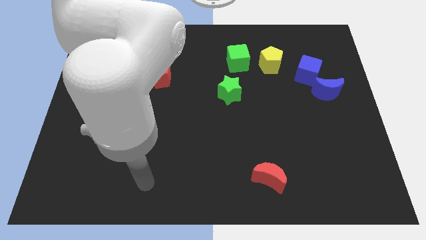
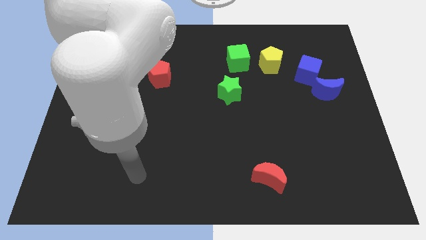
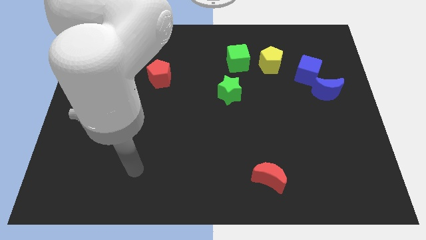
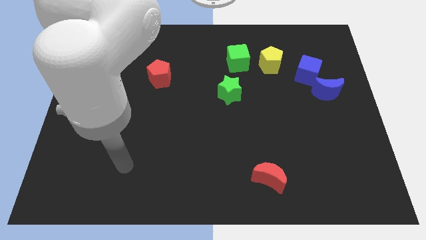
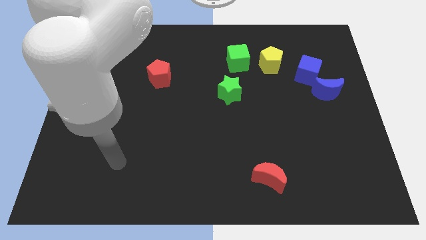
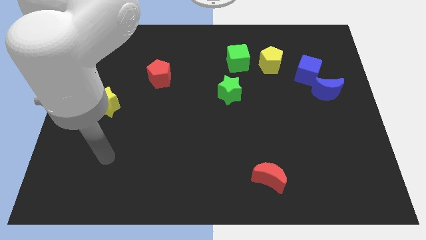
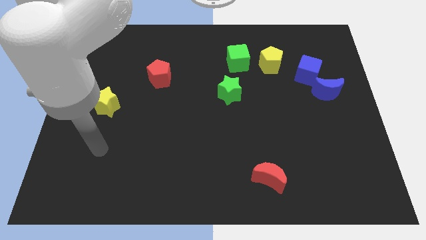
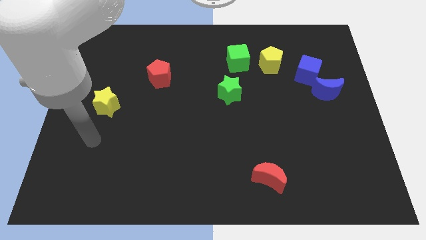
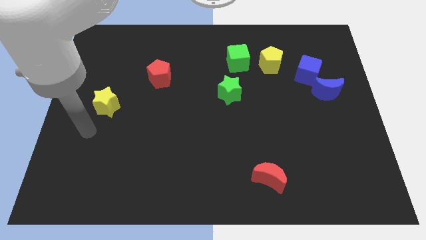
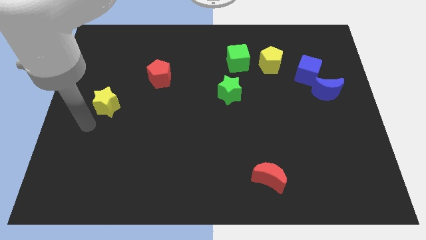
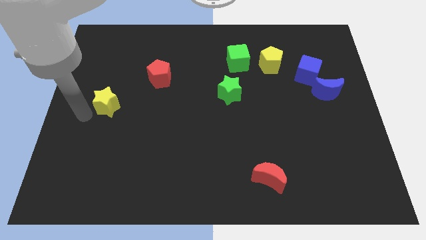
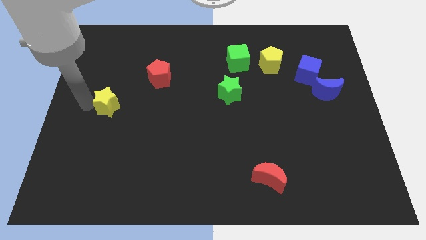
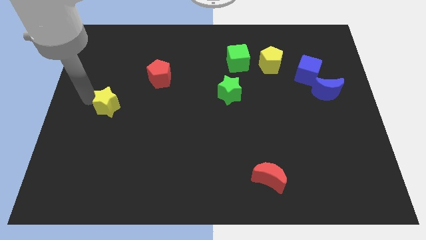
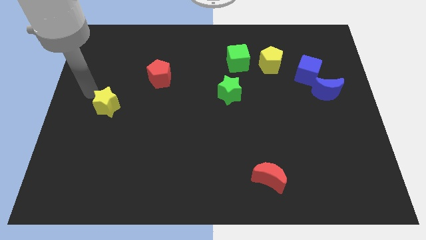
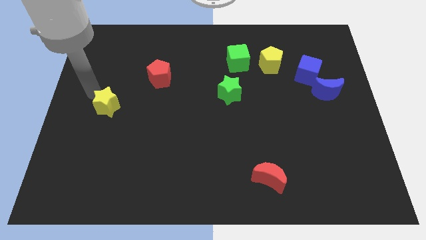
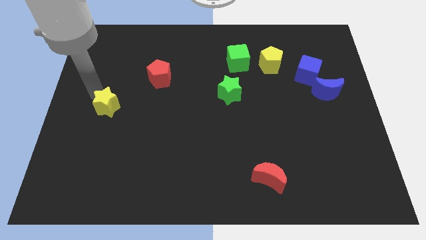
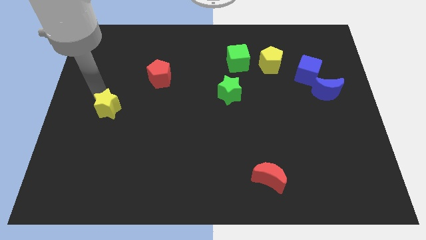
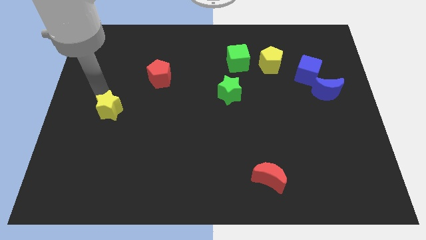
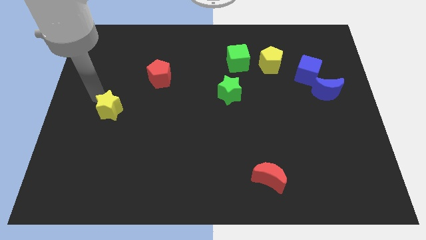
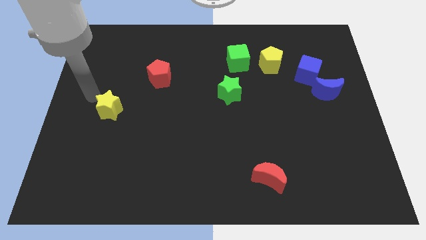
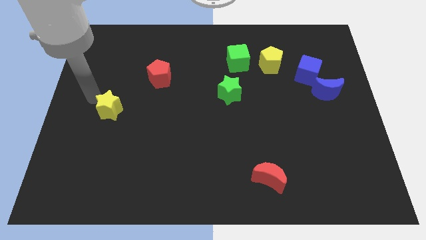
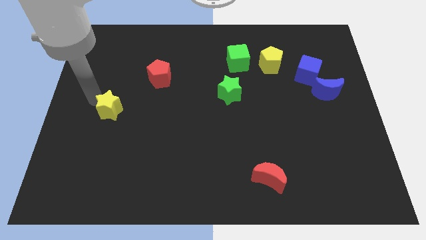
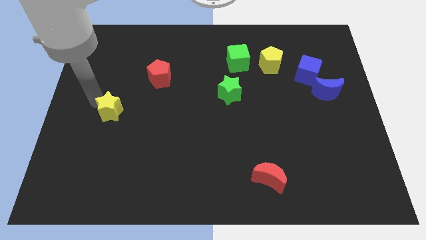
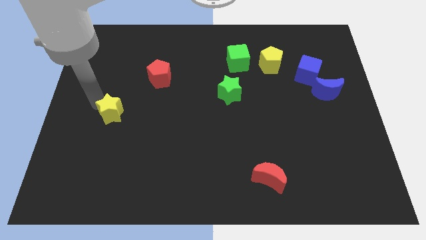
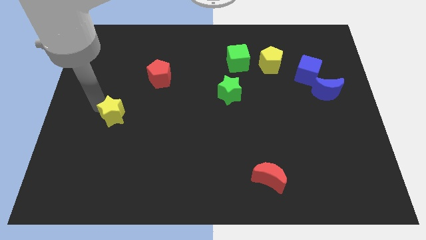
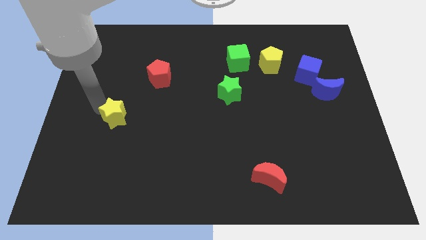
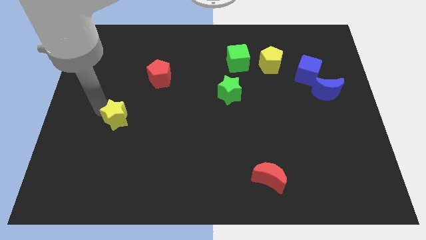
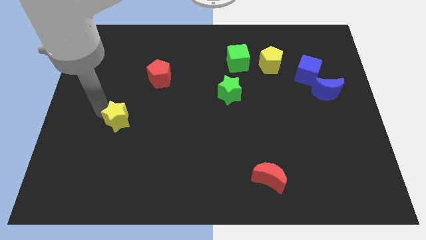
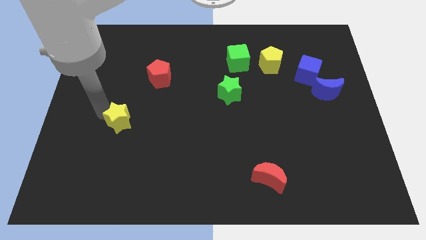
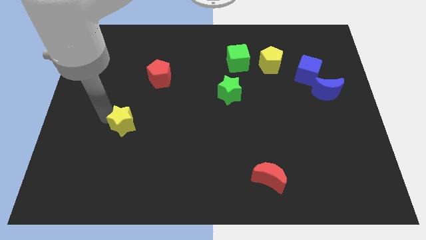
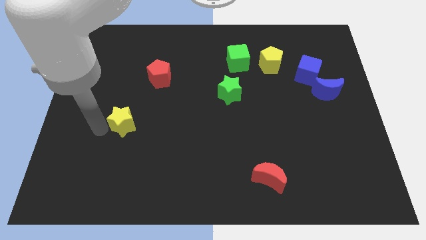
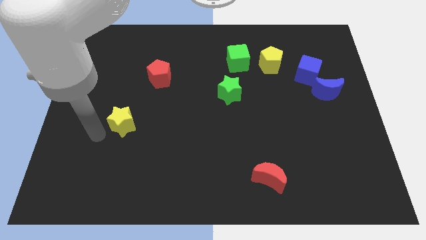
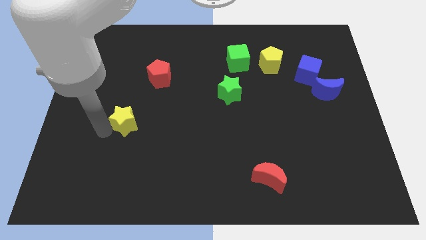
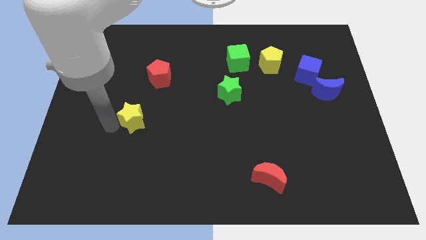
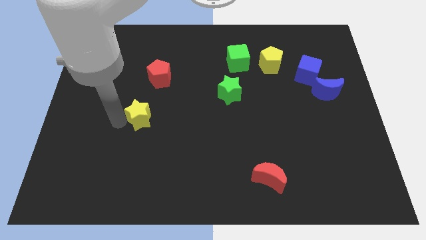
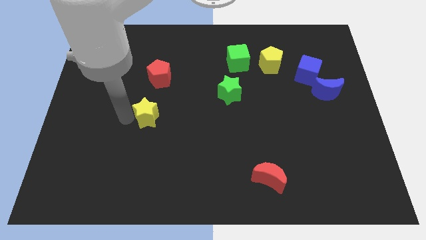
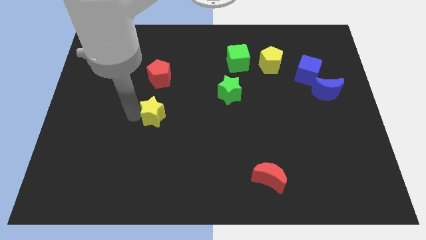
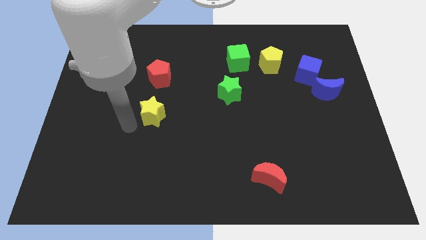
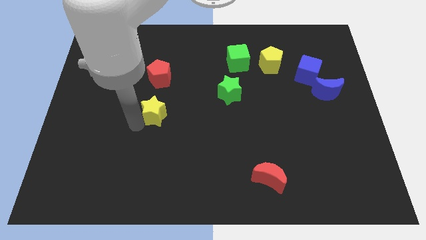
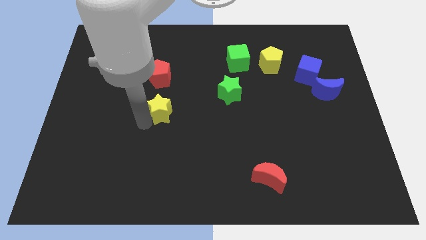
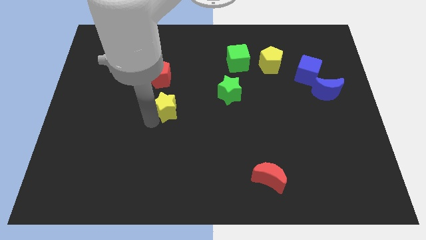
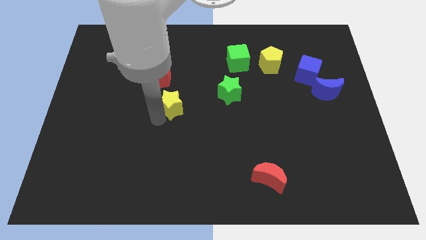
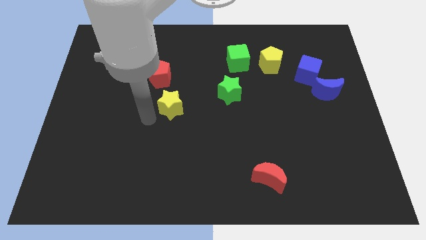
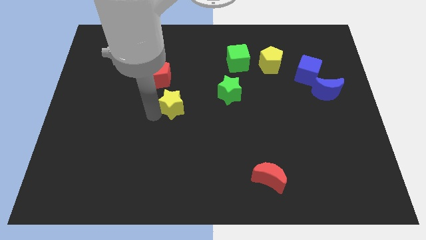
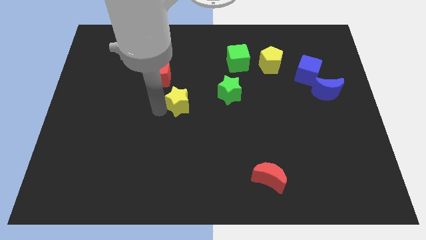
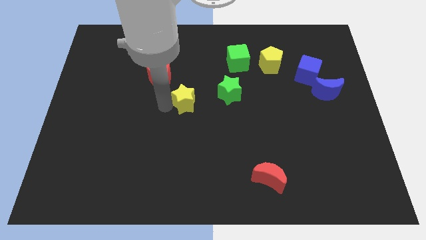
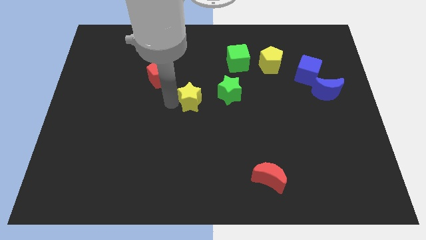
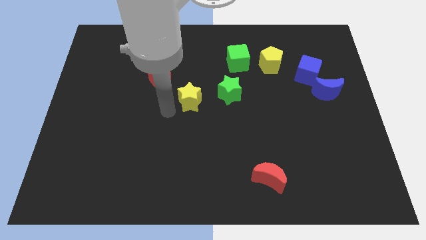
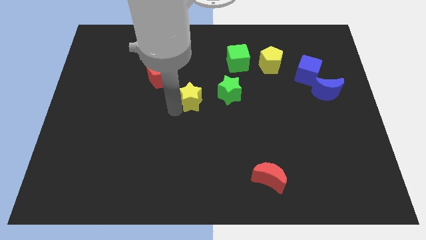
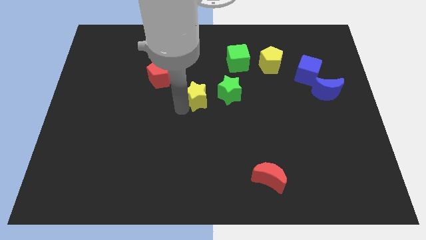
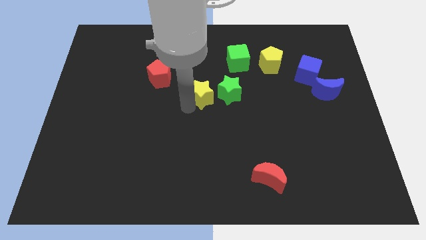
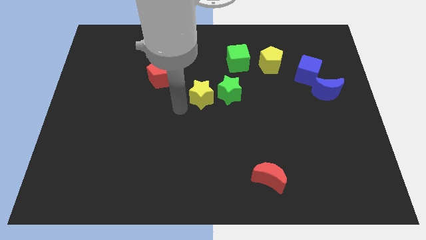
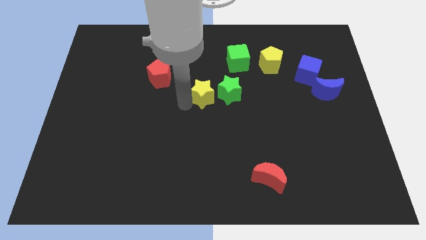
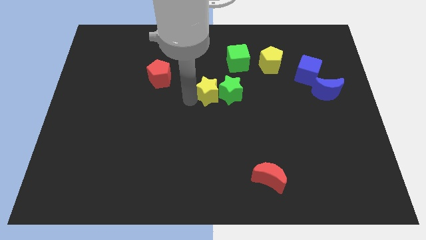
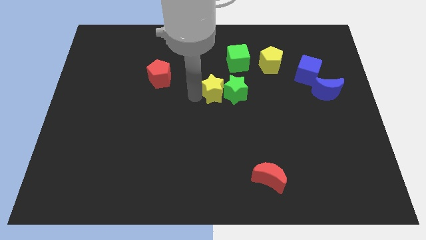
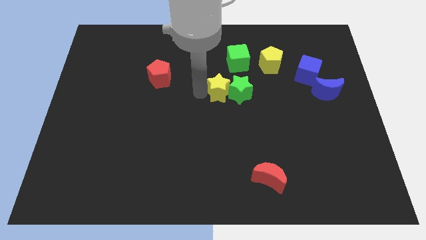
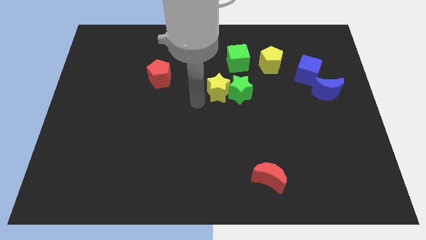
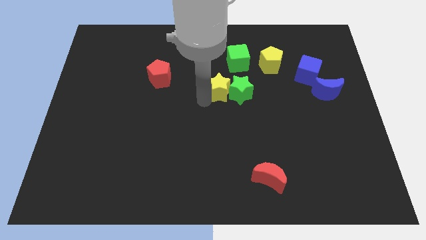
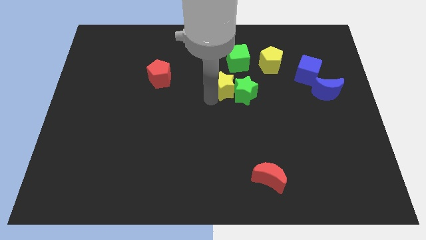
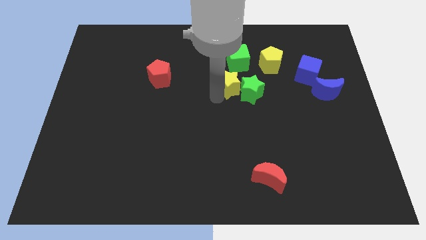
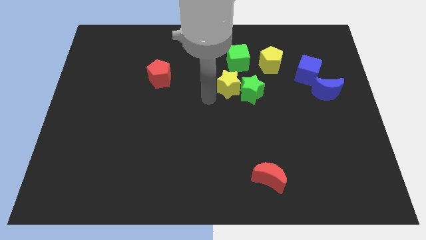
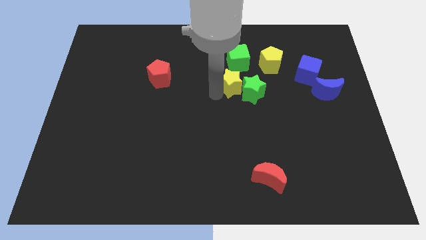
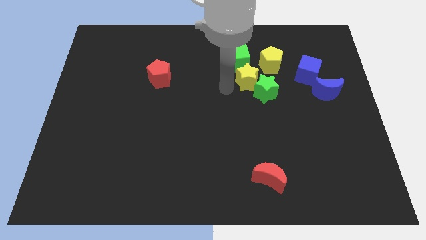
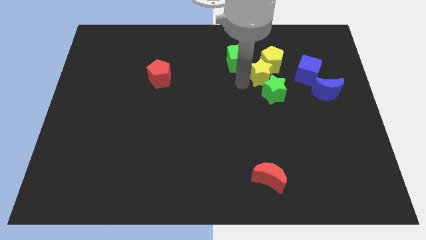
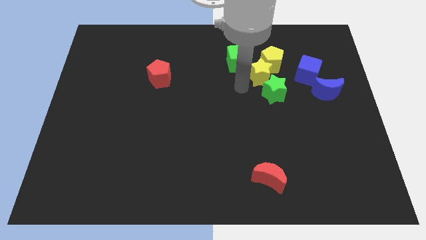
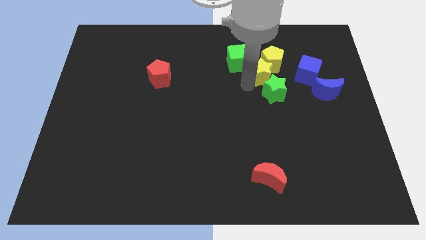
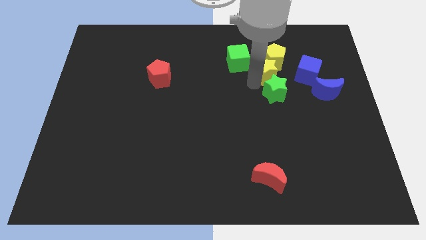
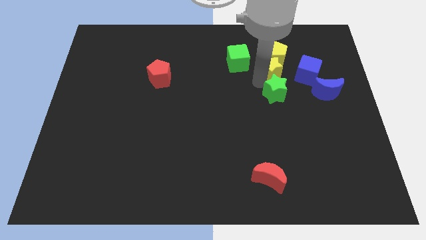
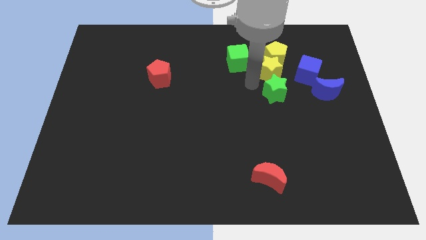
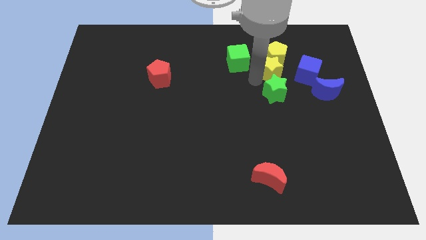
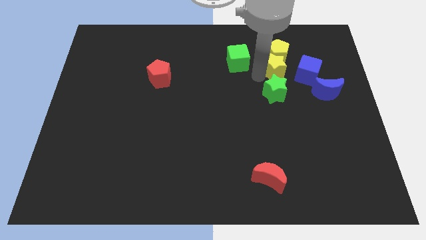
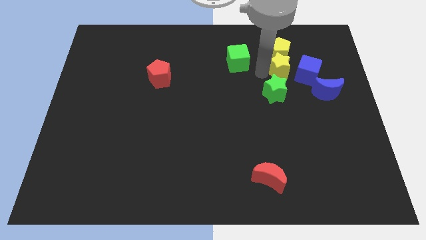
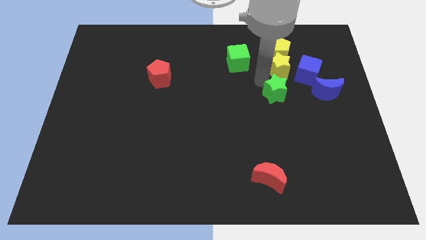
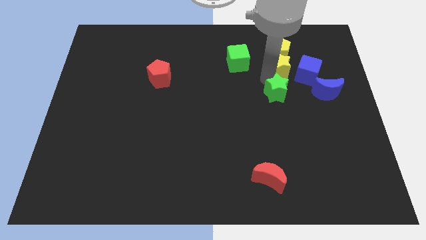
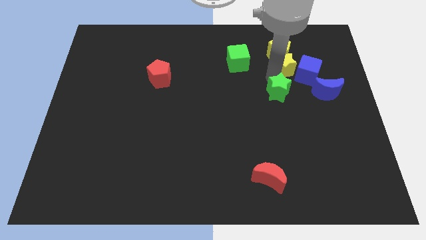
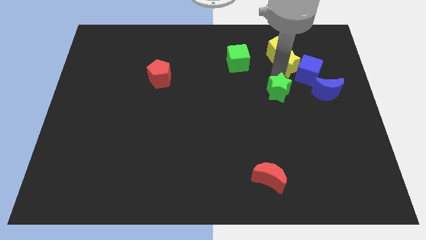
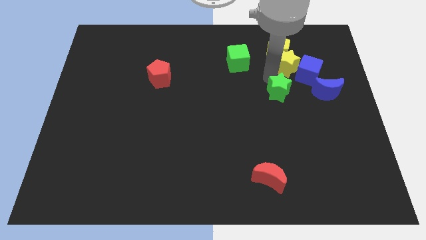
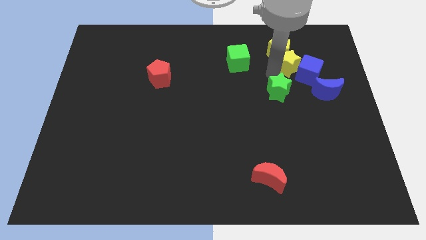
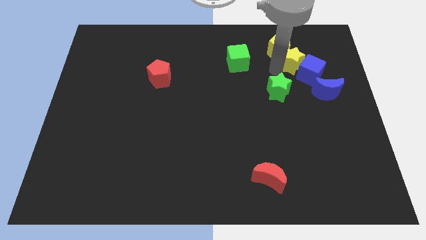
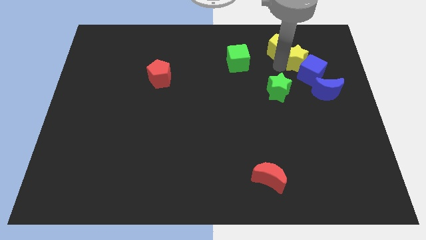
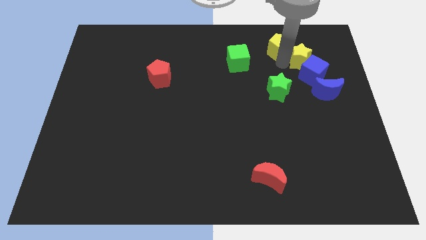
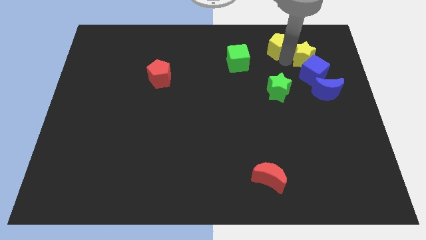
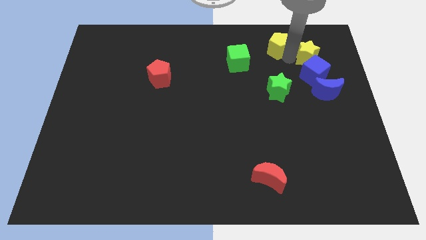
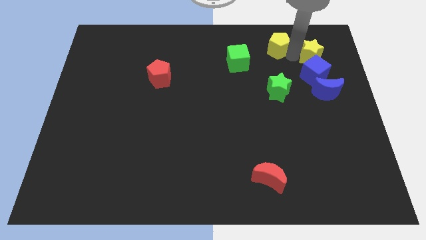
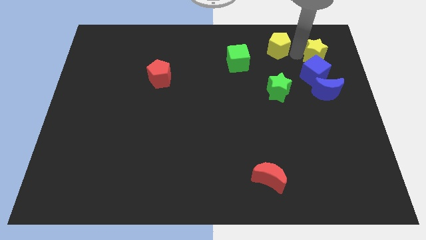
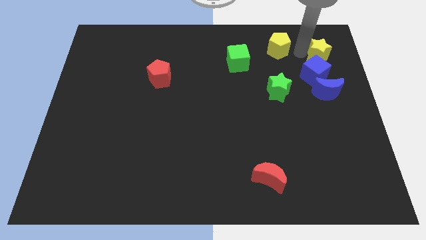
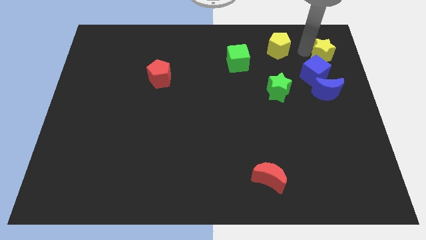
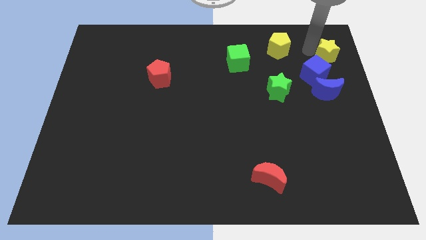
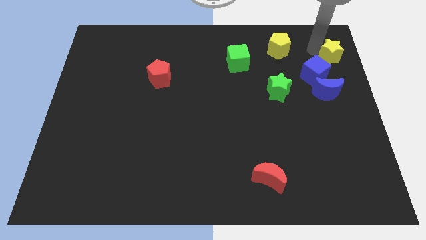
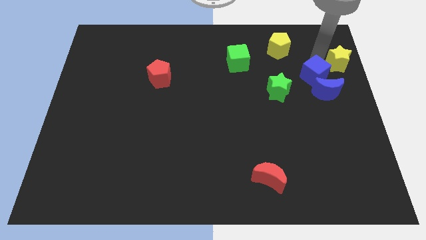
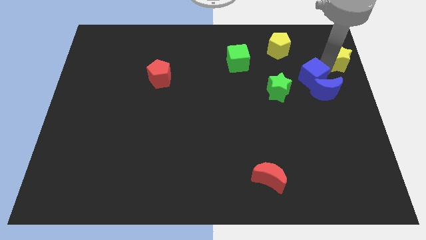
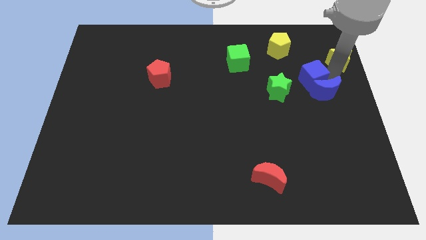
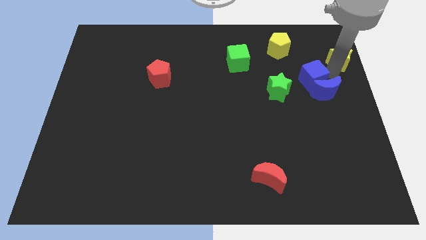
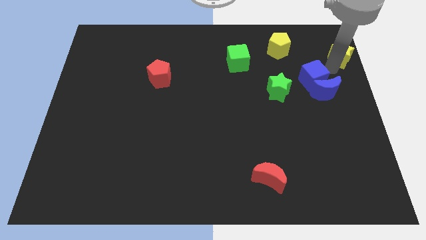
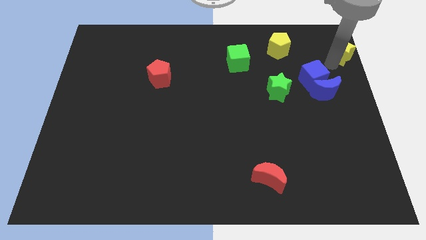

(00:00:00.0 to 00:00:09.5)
put the yellow star to the top right
